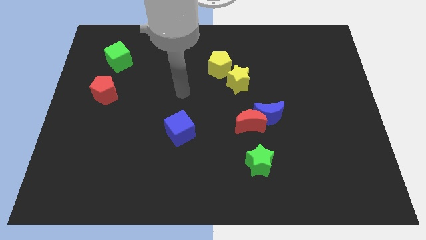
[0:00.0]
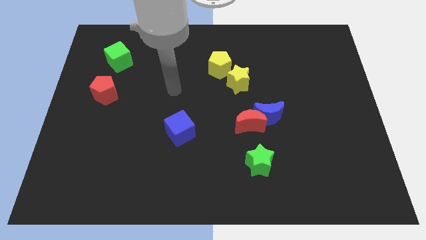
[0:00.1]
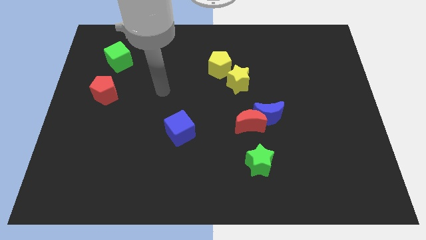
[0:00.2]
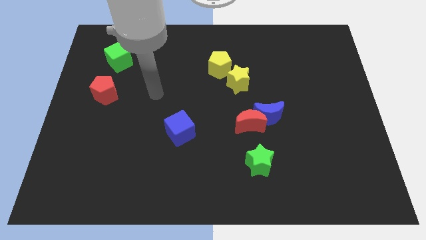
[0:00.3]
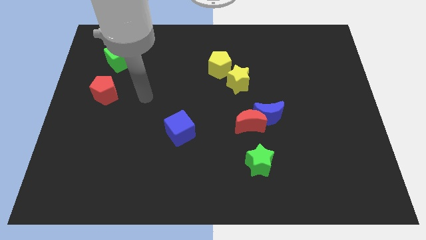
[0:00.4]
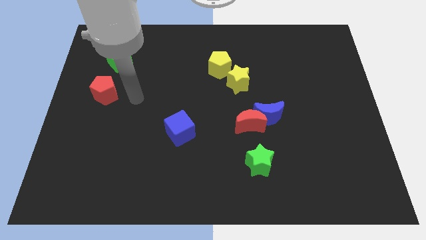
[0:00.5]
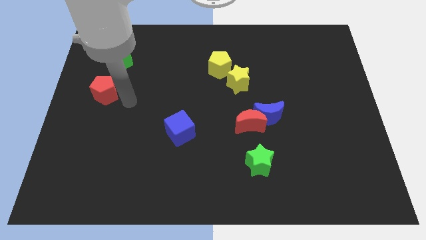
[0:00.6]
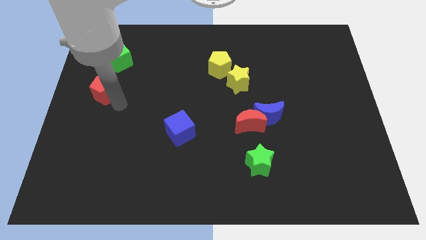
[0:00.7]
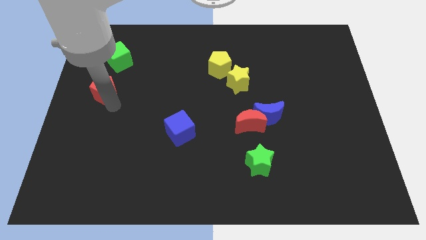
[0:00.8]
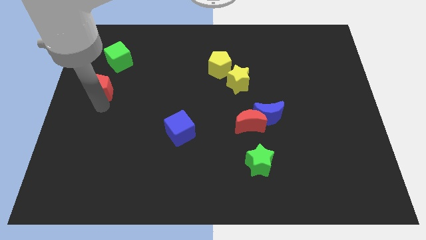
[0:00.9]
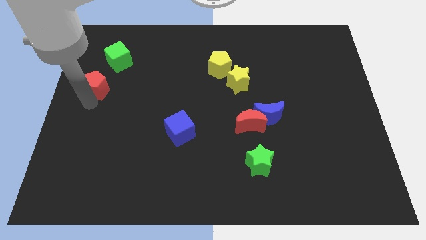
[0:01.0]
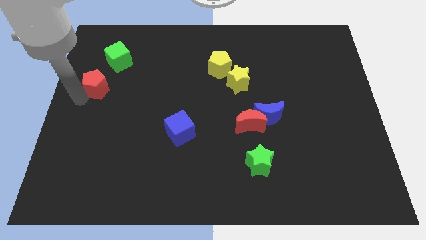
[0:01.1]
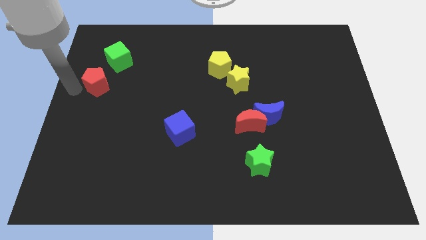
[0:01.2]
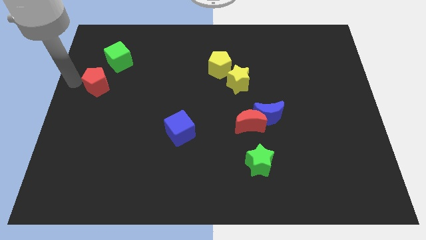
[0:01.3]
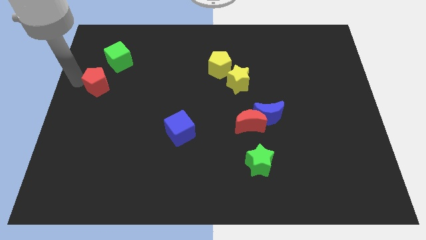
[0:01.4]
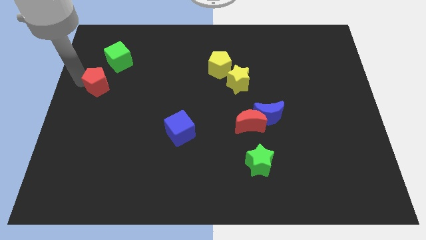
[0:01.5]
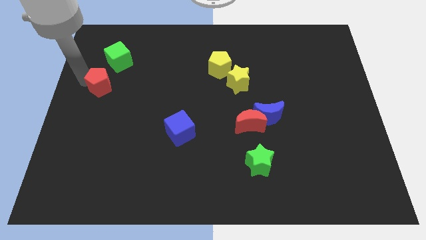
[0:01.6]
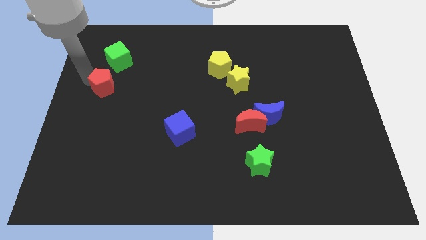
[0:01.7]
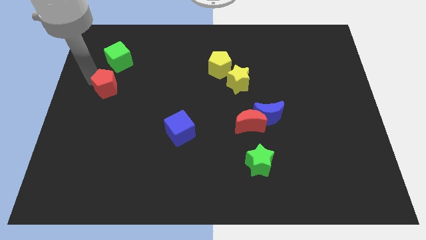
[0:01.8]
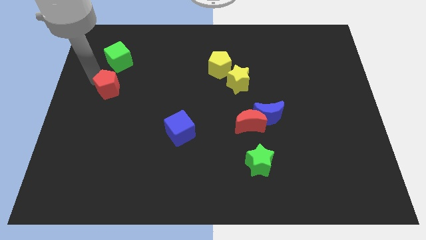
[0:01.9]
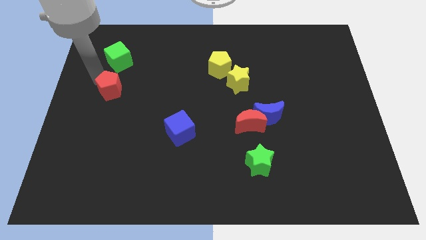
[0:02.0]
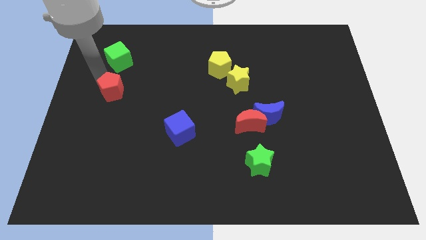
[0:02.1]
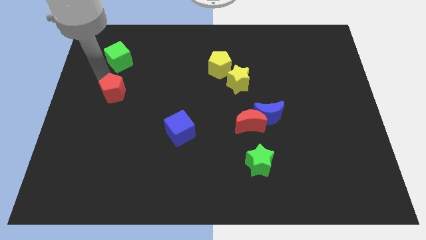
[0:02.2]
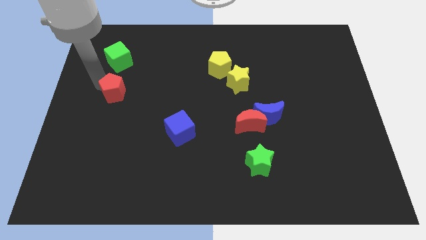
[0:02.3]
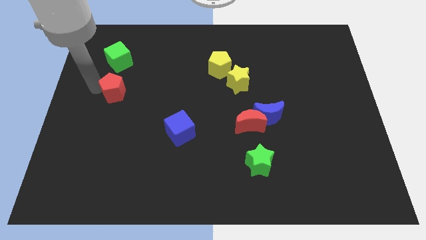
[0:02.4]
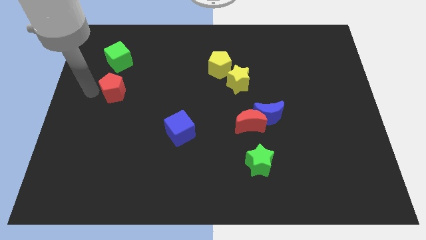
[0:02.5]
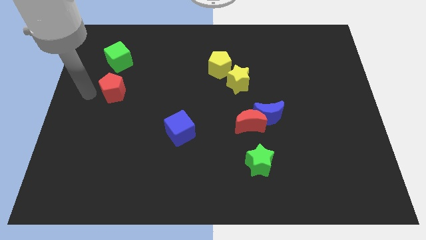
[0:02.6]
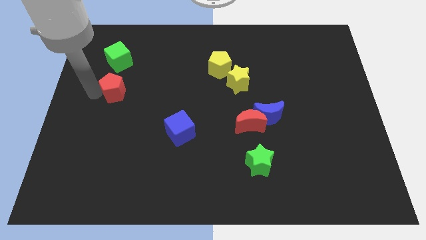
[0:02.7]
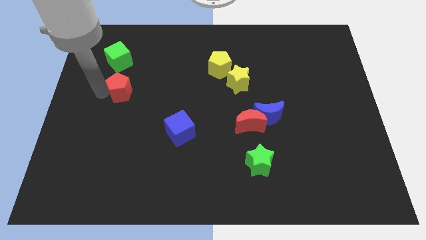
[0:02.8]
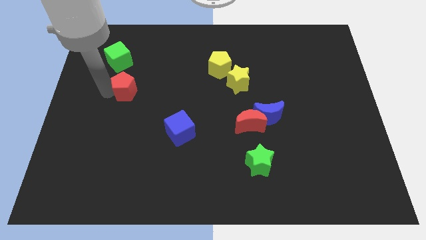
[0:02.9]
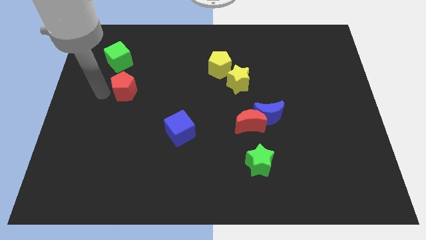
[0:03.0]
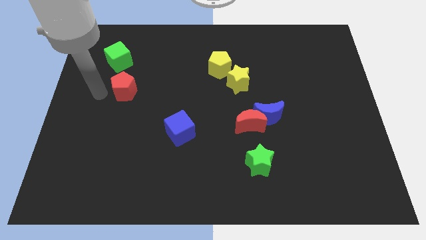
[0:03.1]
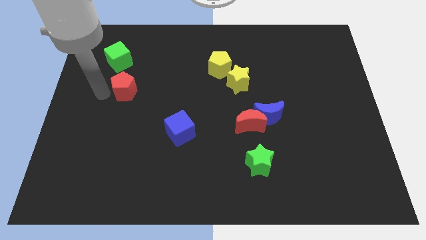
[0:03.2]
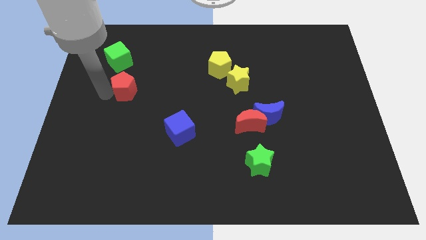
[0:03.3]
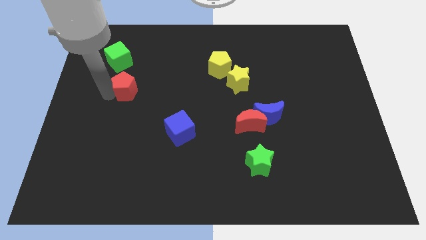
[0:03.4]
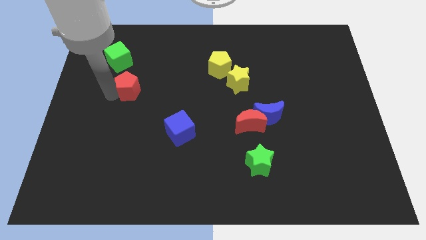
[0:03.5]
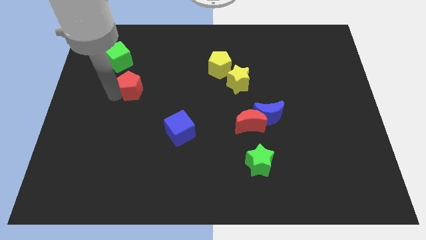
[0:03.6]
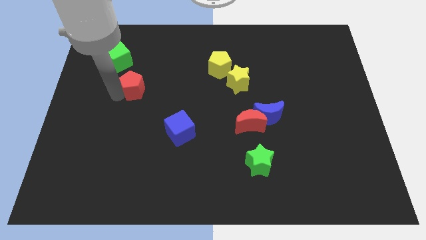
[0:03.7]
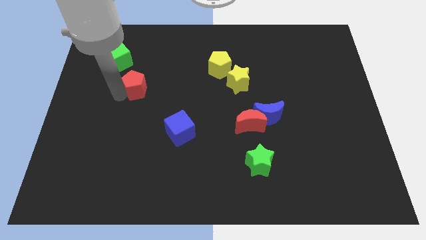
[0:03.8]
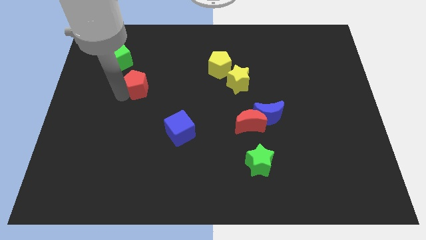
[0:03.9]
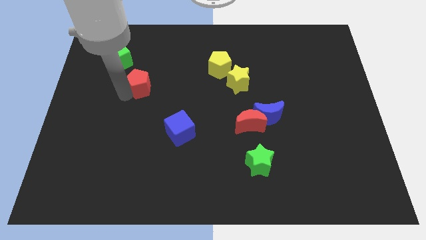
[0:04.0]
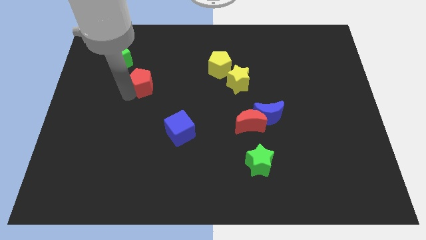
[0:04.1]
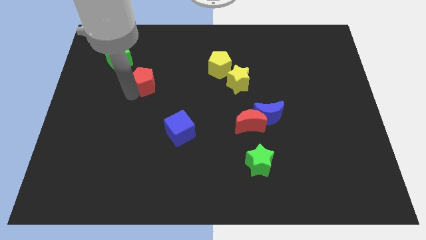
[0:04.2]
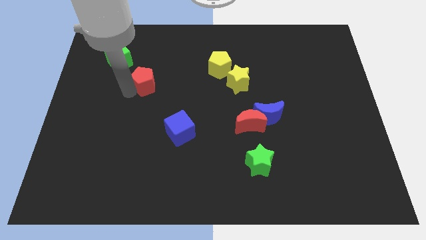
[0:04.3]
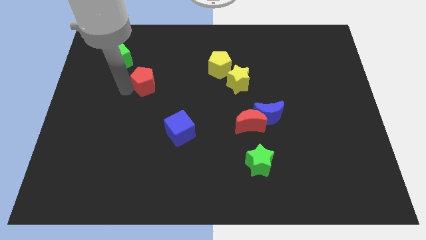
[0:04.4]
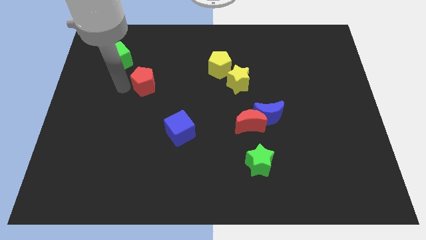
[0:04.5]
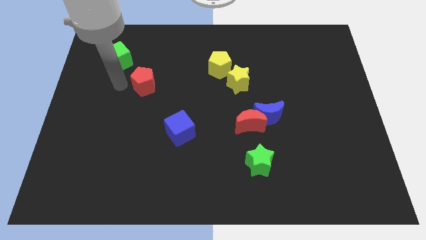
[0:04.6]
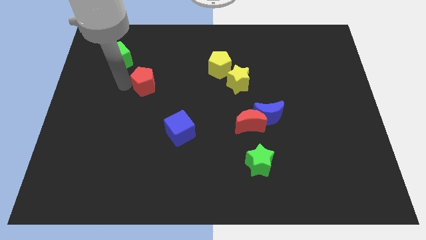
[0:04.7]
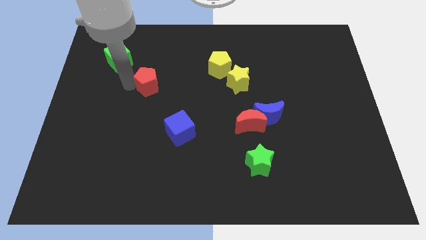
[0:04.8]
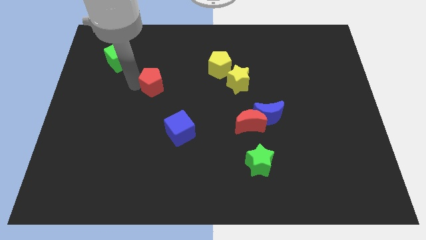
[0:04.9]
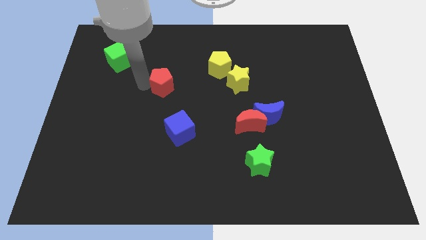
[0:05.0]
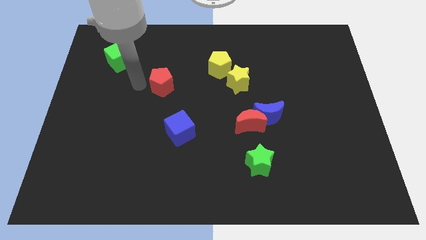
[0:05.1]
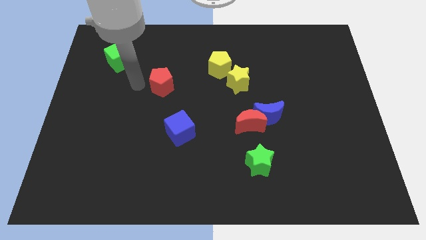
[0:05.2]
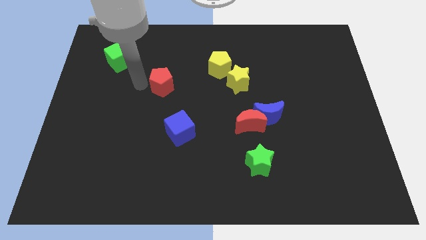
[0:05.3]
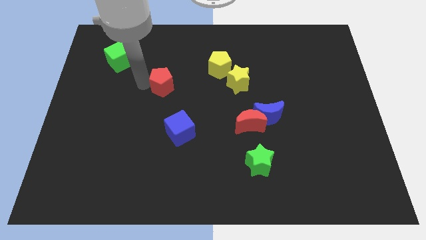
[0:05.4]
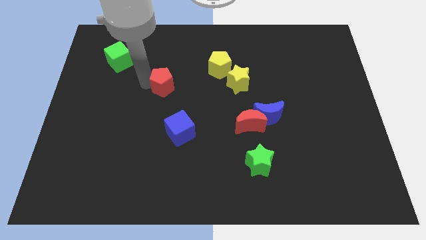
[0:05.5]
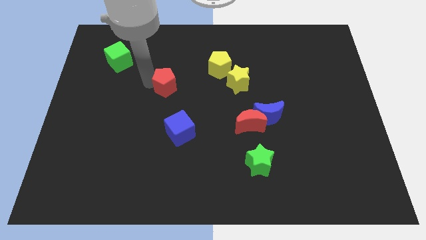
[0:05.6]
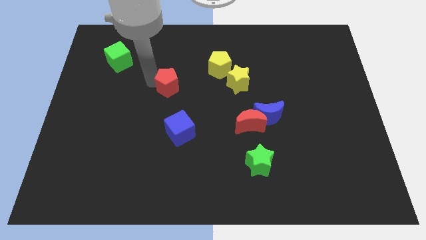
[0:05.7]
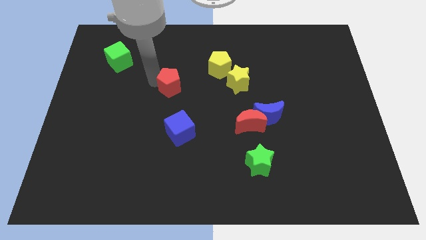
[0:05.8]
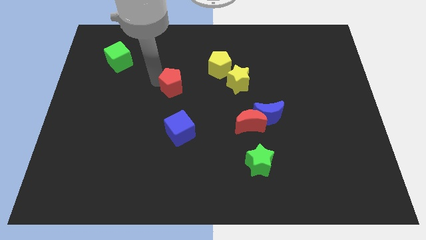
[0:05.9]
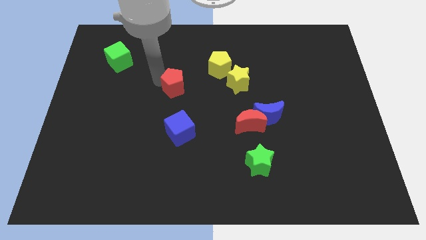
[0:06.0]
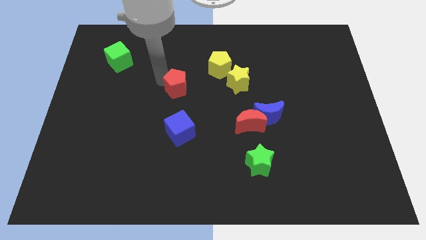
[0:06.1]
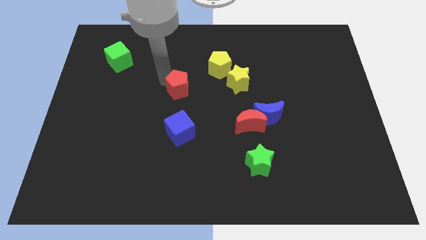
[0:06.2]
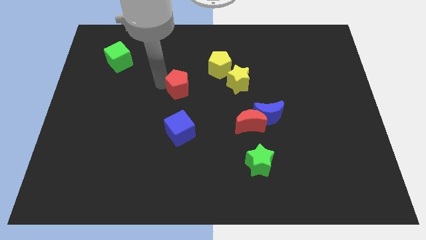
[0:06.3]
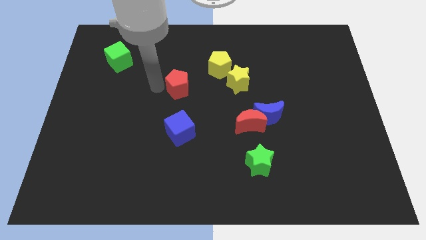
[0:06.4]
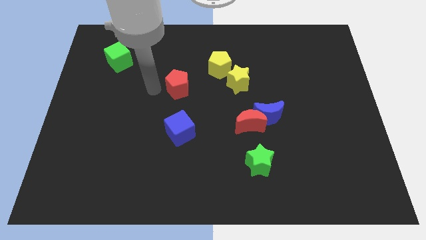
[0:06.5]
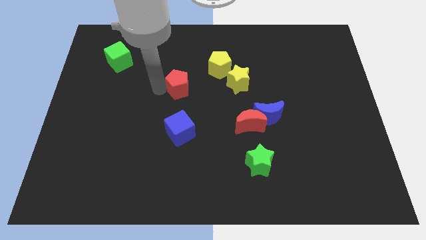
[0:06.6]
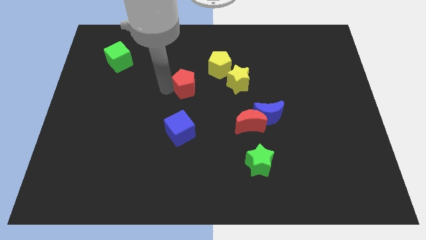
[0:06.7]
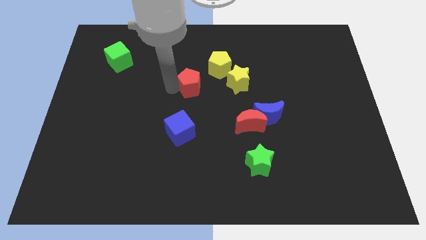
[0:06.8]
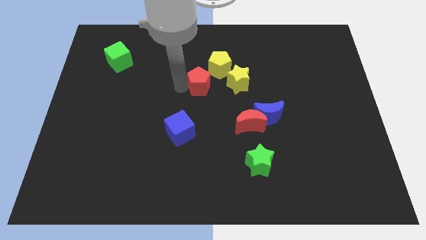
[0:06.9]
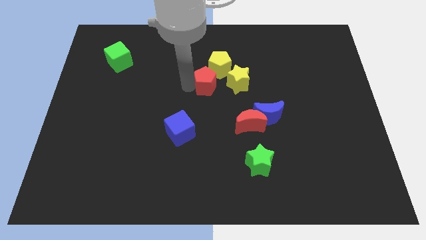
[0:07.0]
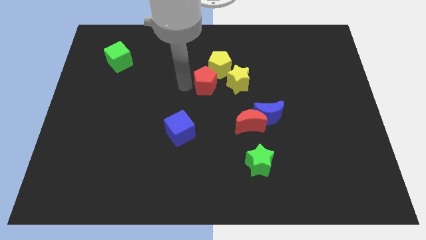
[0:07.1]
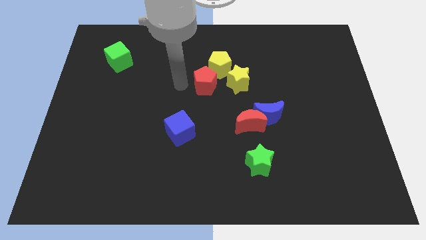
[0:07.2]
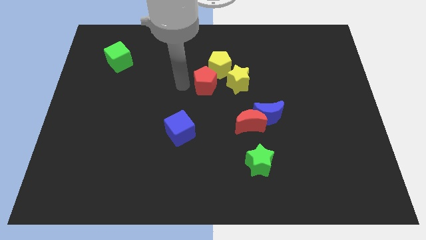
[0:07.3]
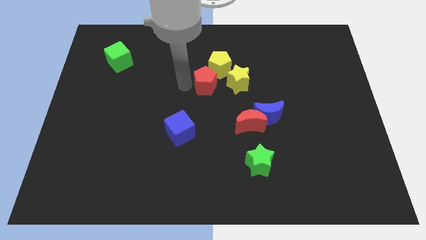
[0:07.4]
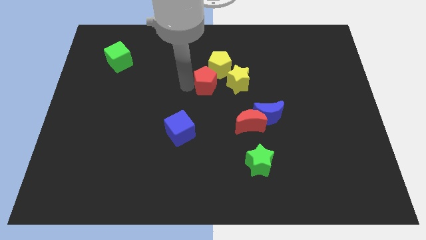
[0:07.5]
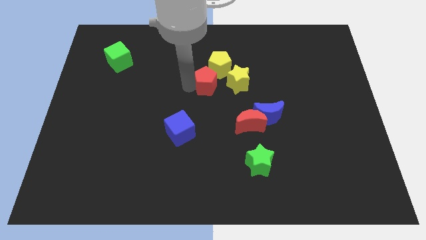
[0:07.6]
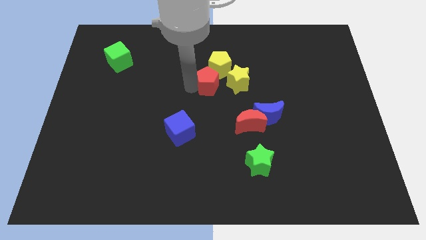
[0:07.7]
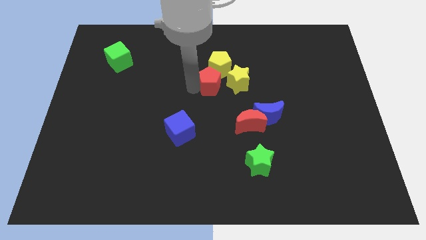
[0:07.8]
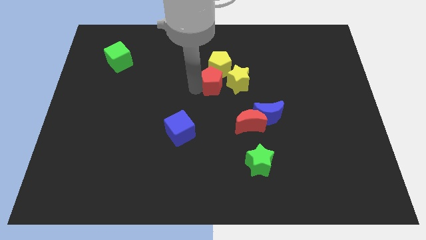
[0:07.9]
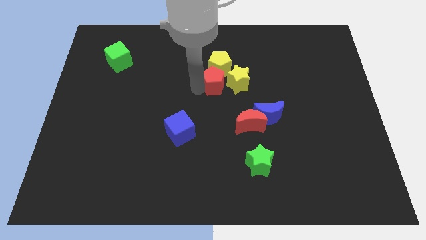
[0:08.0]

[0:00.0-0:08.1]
push the red pentagon next to the yellow star
